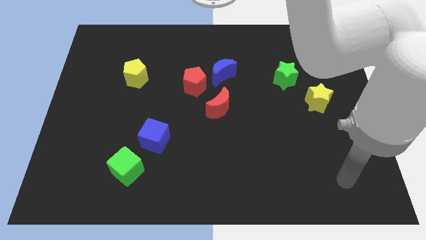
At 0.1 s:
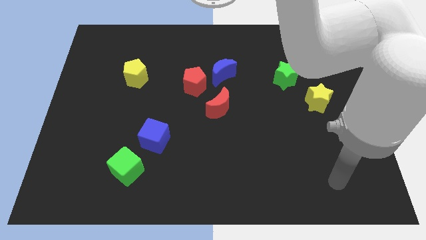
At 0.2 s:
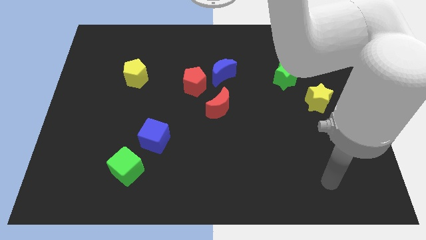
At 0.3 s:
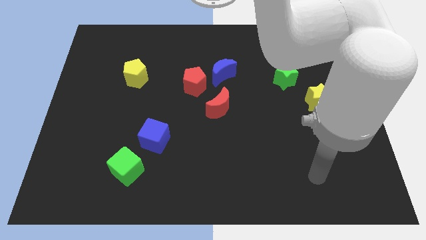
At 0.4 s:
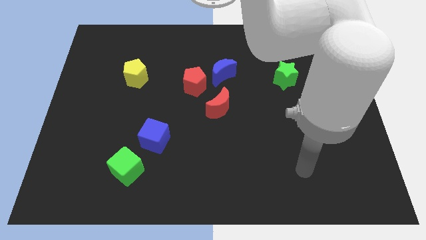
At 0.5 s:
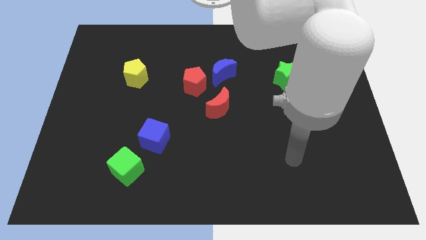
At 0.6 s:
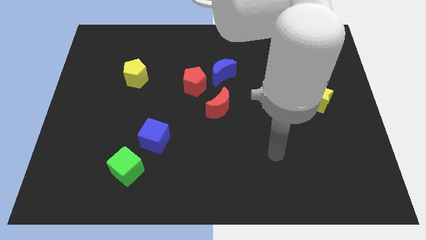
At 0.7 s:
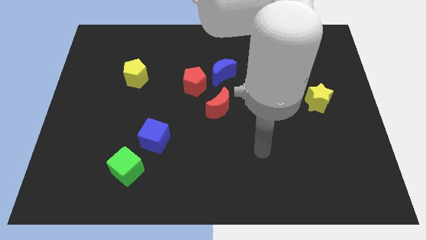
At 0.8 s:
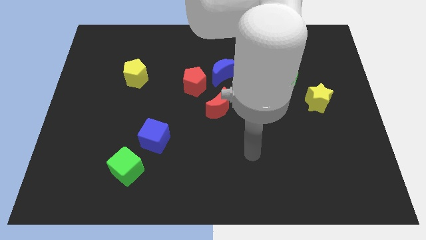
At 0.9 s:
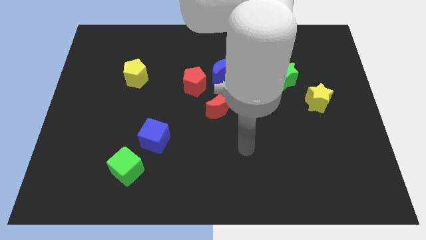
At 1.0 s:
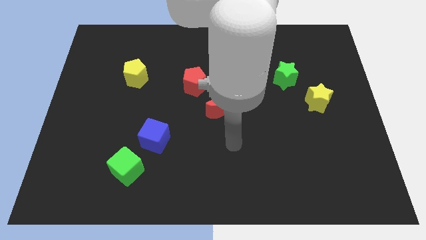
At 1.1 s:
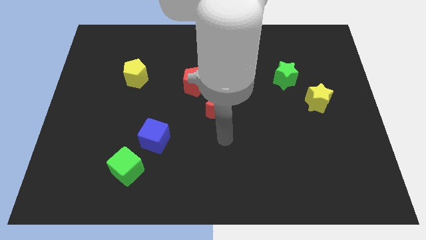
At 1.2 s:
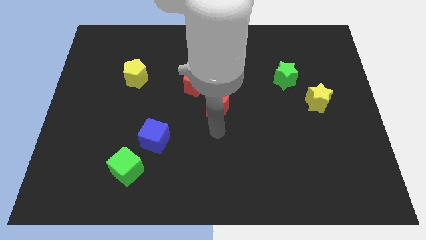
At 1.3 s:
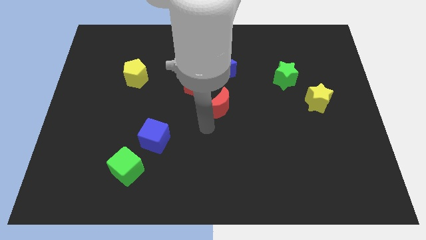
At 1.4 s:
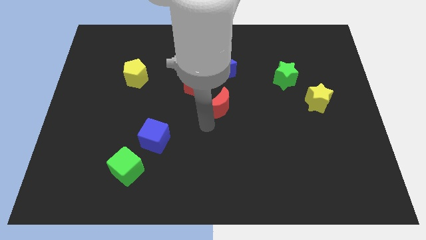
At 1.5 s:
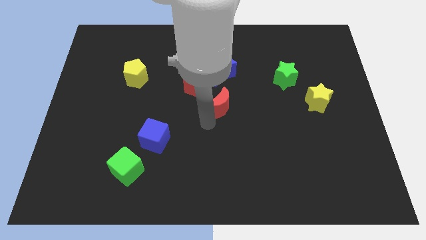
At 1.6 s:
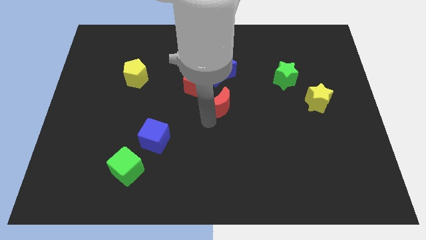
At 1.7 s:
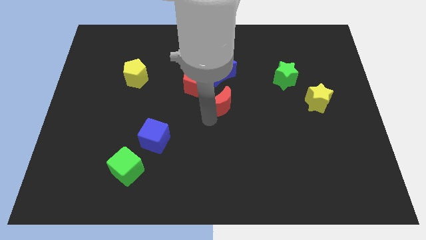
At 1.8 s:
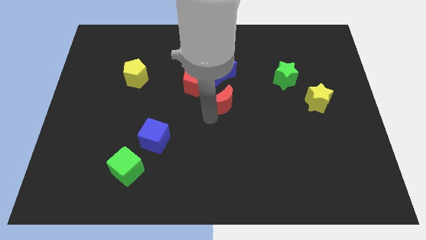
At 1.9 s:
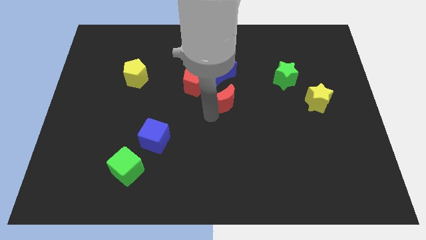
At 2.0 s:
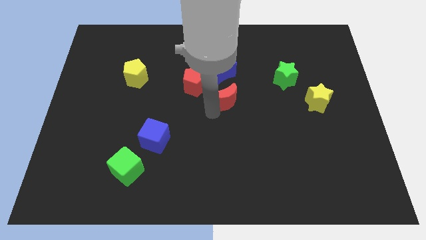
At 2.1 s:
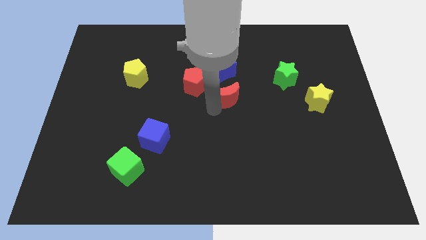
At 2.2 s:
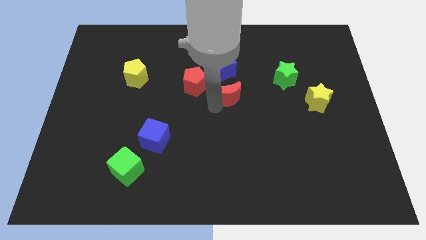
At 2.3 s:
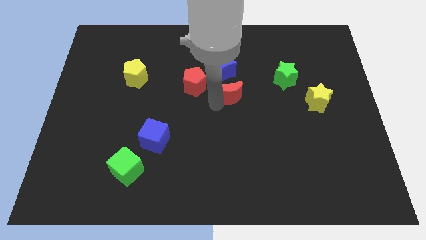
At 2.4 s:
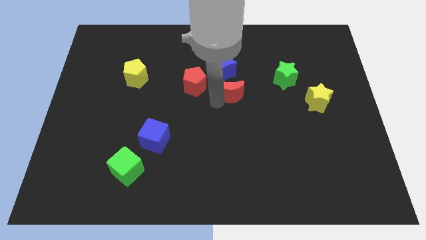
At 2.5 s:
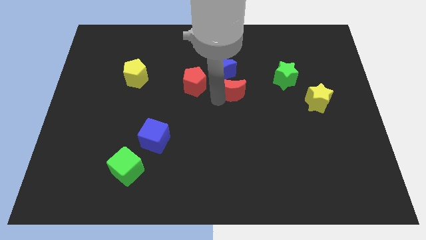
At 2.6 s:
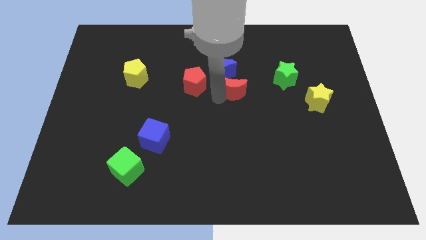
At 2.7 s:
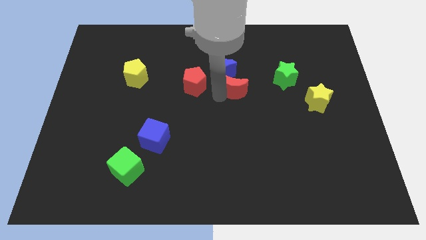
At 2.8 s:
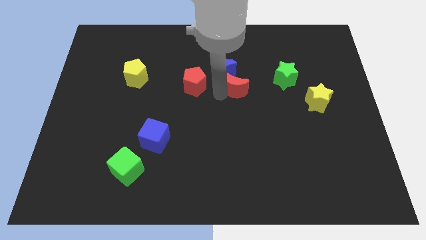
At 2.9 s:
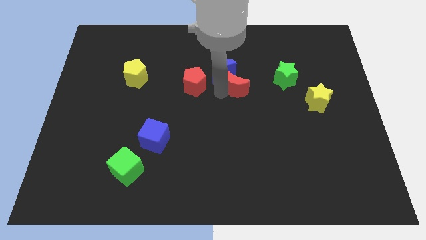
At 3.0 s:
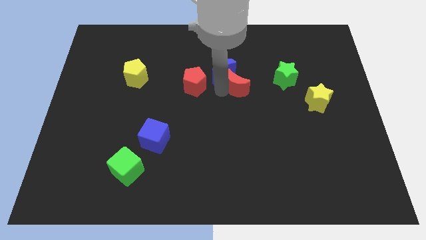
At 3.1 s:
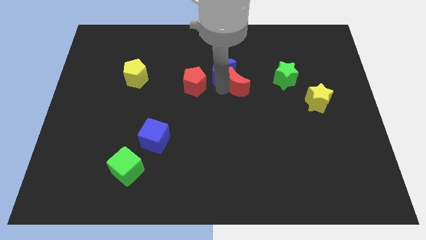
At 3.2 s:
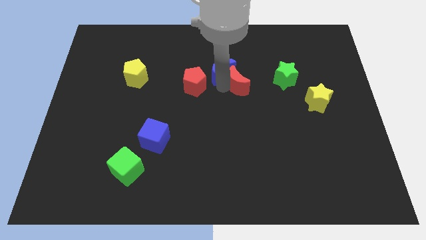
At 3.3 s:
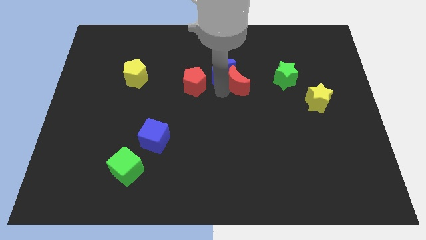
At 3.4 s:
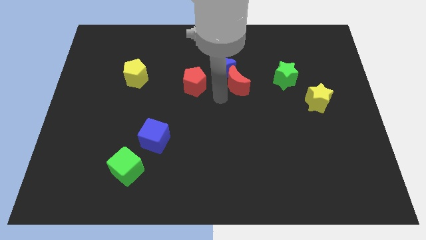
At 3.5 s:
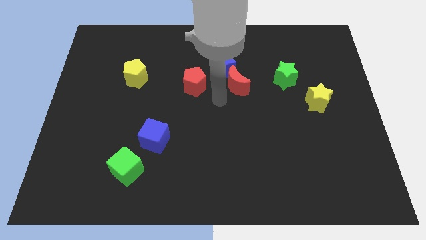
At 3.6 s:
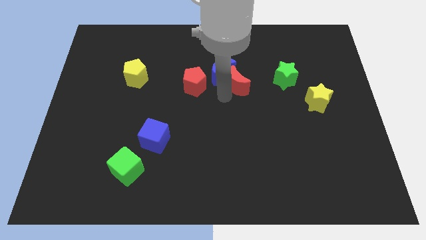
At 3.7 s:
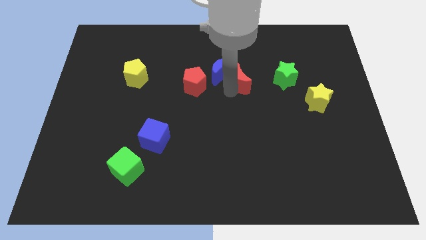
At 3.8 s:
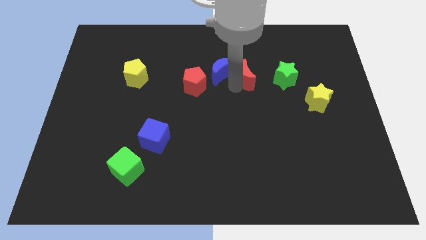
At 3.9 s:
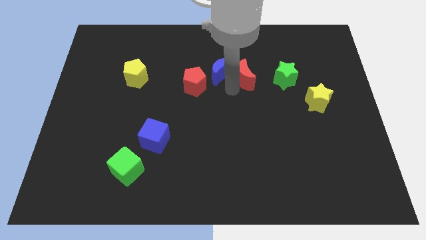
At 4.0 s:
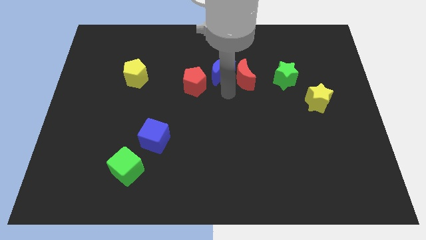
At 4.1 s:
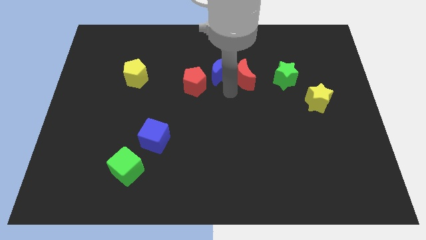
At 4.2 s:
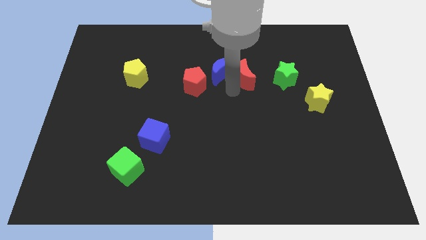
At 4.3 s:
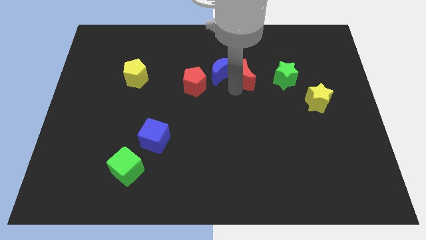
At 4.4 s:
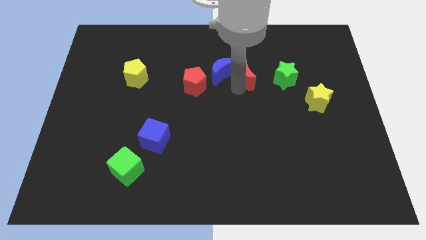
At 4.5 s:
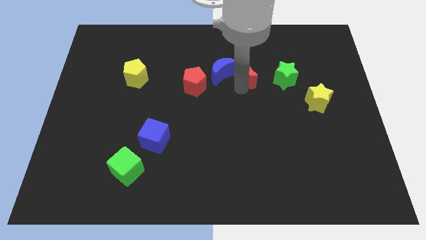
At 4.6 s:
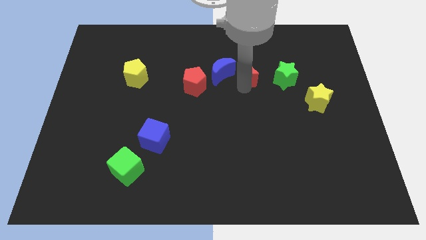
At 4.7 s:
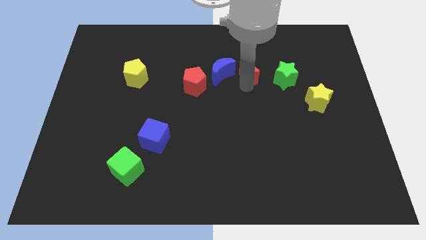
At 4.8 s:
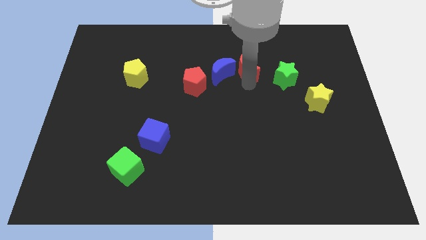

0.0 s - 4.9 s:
slide the red moon to the top left side of the green star

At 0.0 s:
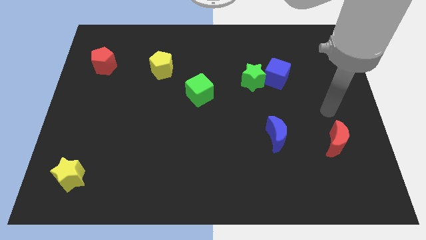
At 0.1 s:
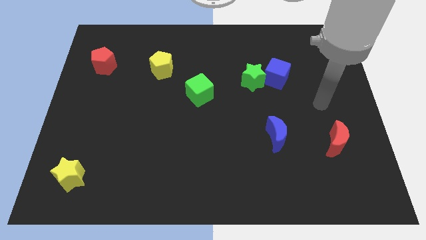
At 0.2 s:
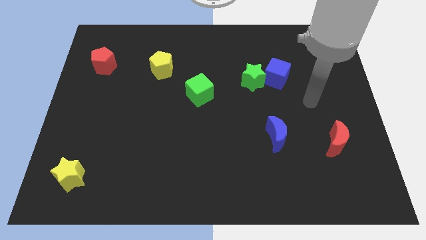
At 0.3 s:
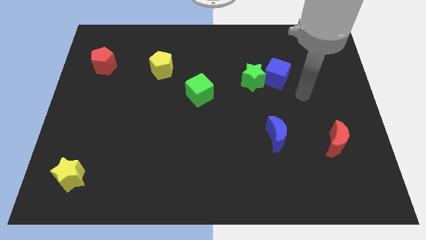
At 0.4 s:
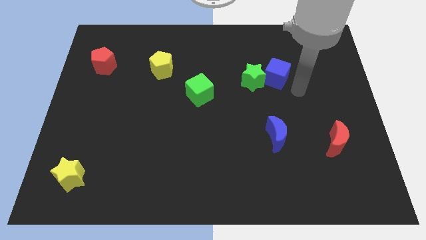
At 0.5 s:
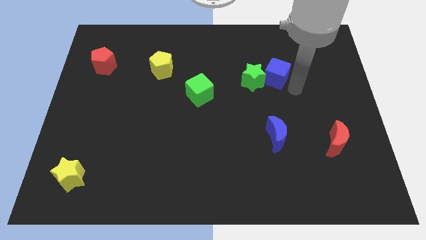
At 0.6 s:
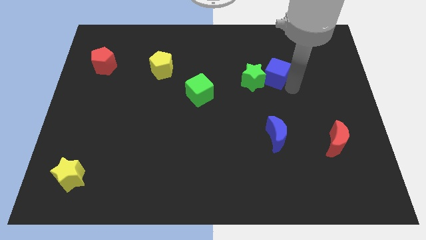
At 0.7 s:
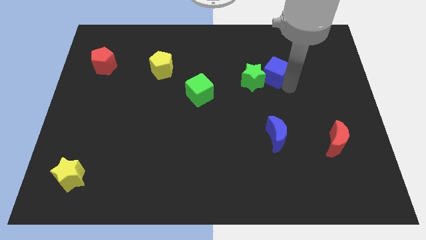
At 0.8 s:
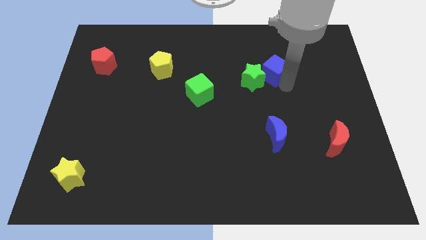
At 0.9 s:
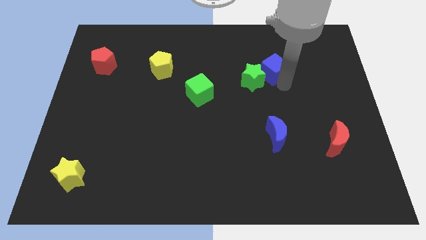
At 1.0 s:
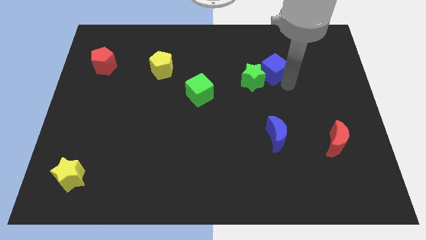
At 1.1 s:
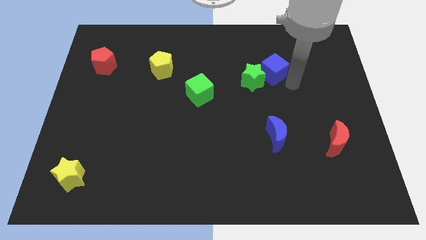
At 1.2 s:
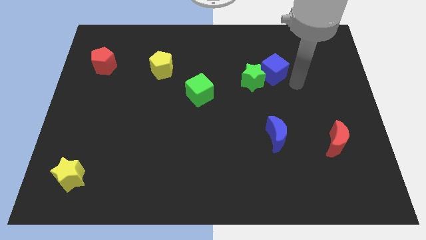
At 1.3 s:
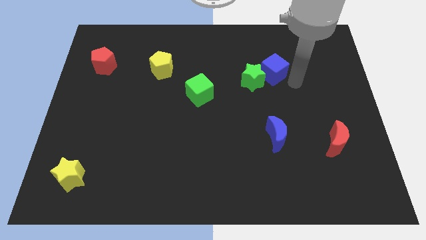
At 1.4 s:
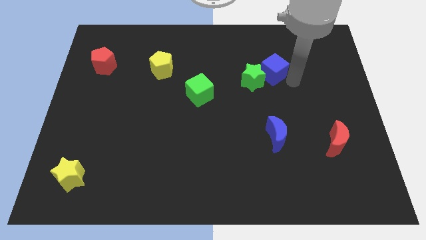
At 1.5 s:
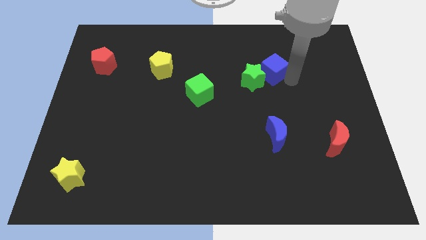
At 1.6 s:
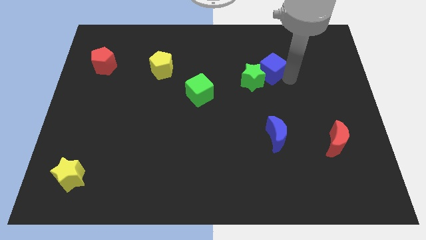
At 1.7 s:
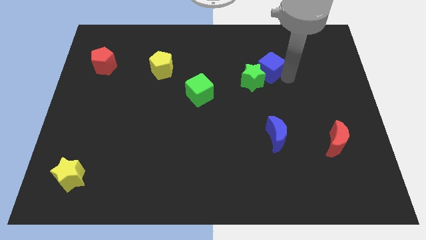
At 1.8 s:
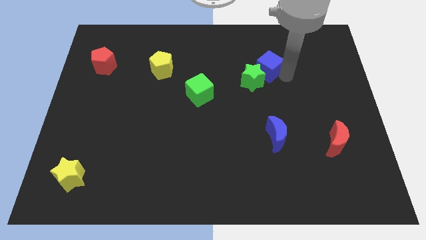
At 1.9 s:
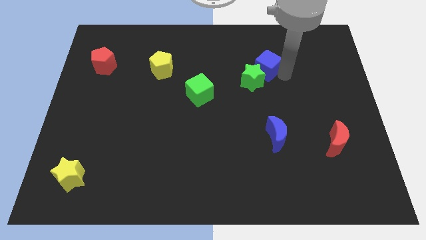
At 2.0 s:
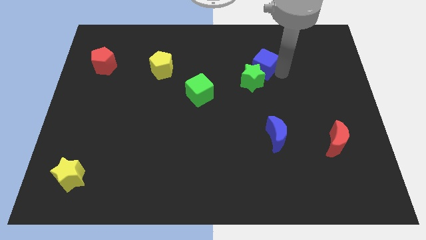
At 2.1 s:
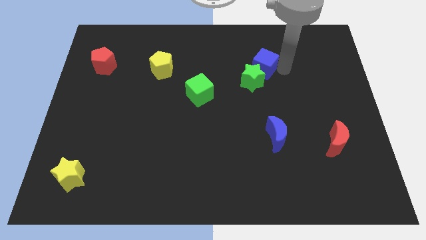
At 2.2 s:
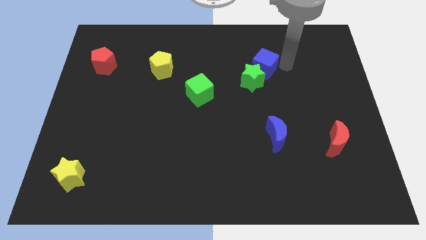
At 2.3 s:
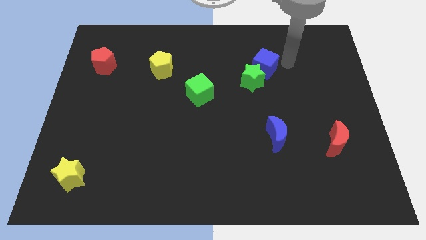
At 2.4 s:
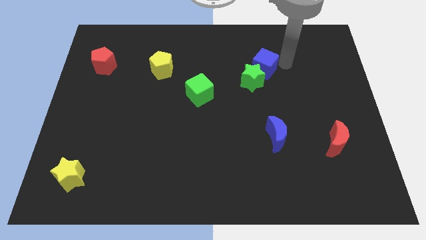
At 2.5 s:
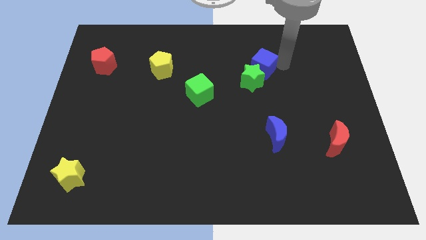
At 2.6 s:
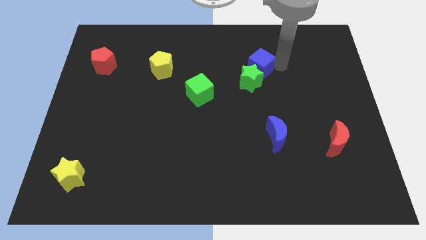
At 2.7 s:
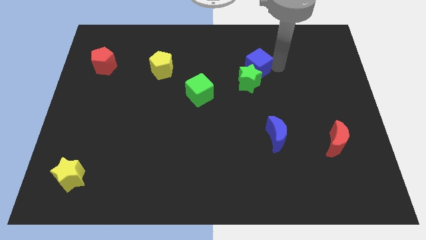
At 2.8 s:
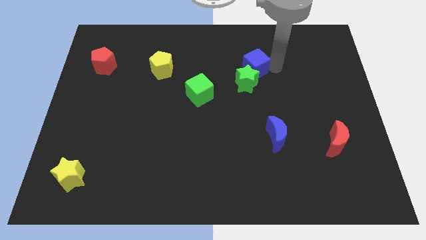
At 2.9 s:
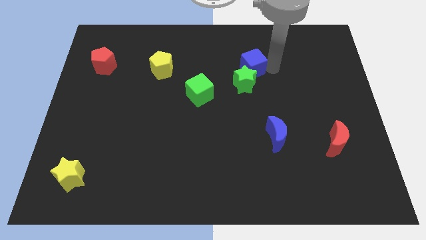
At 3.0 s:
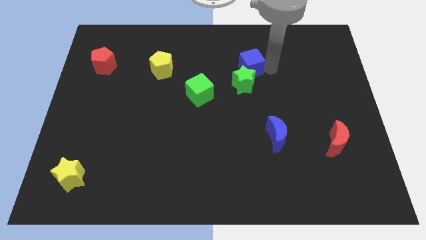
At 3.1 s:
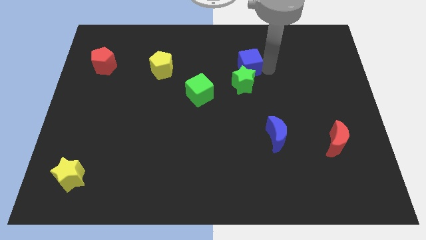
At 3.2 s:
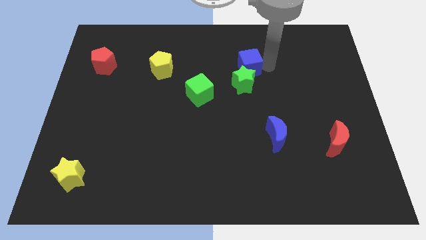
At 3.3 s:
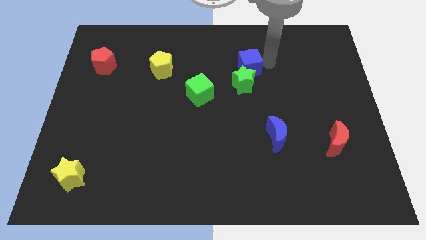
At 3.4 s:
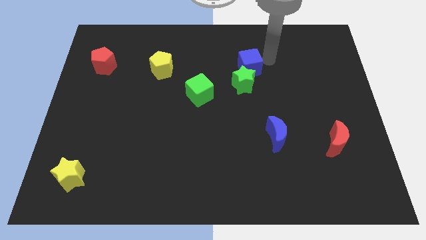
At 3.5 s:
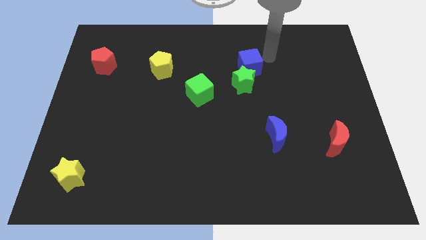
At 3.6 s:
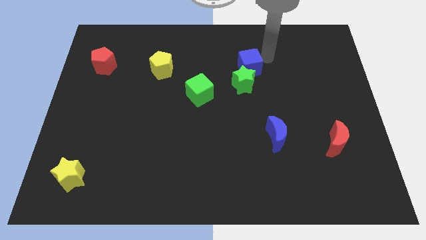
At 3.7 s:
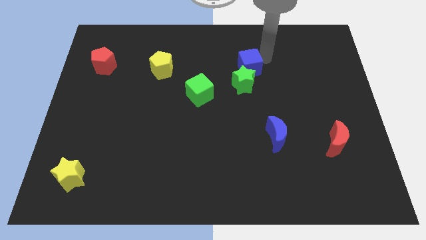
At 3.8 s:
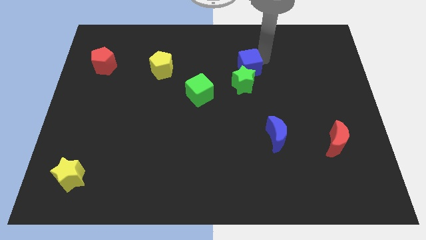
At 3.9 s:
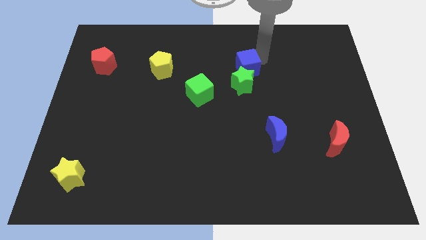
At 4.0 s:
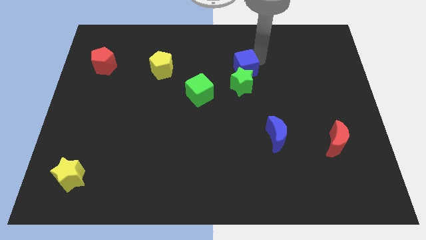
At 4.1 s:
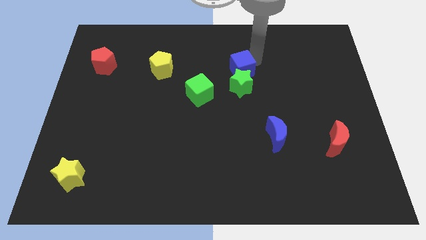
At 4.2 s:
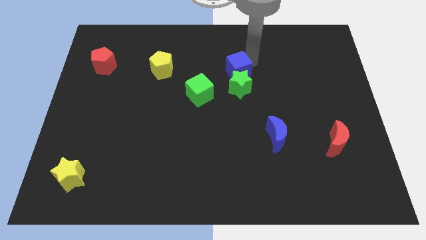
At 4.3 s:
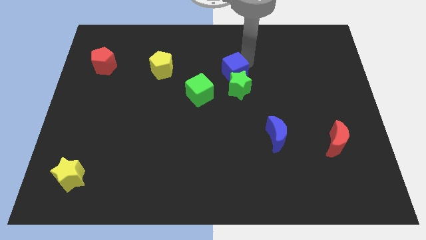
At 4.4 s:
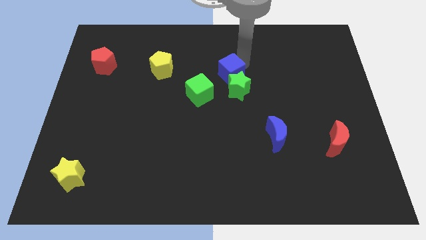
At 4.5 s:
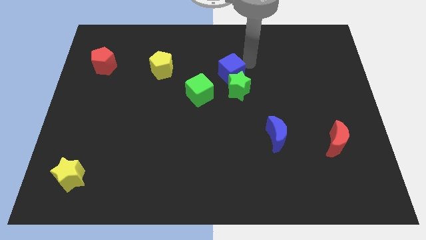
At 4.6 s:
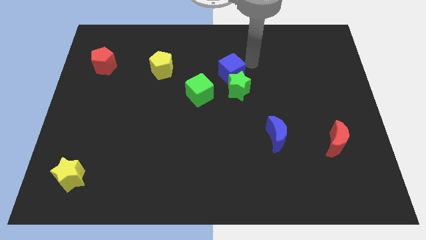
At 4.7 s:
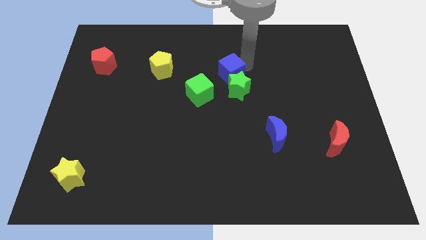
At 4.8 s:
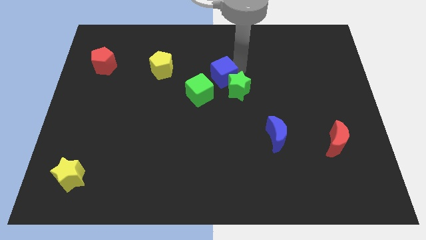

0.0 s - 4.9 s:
push the blue cube to the left side of the green star
